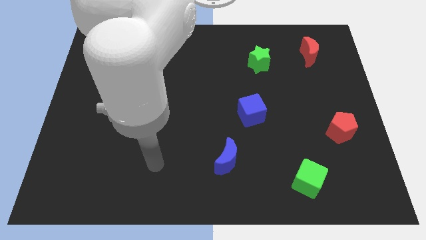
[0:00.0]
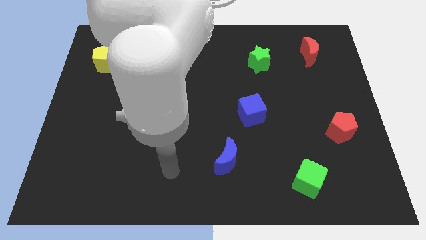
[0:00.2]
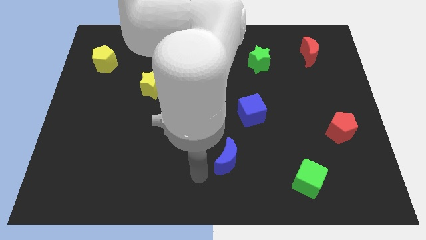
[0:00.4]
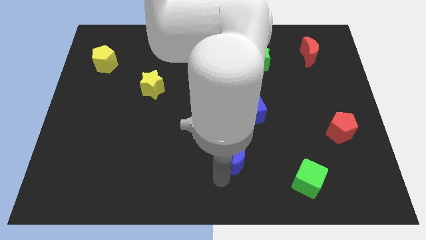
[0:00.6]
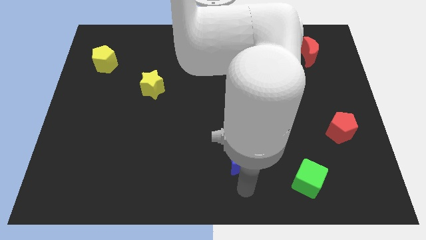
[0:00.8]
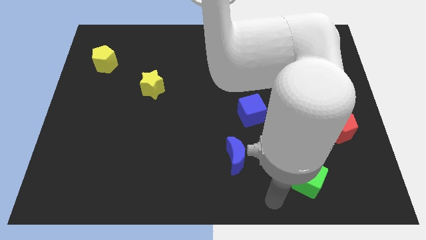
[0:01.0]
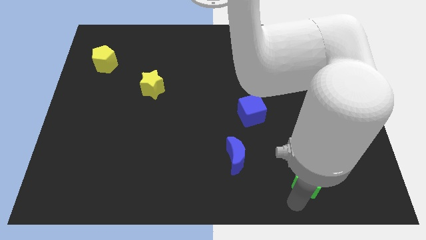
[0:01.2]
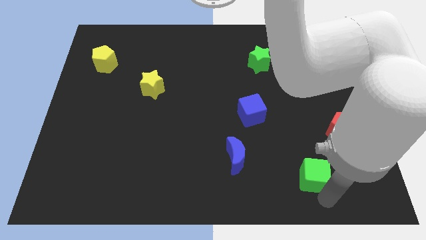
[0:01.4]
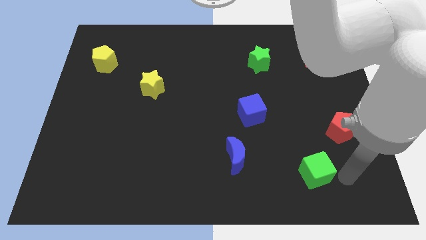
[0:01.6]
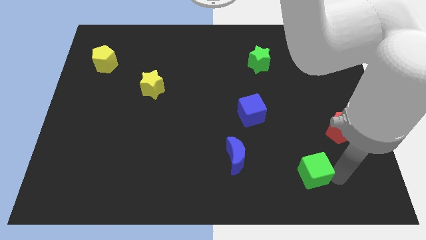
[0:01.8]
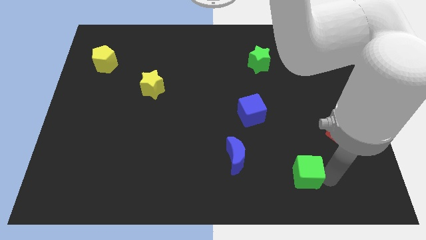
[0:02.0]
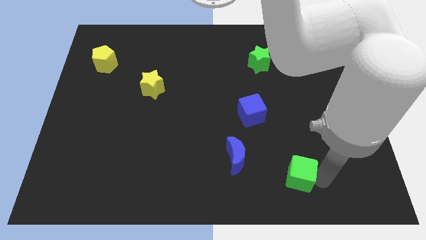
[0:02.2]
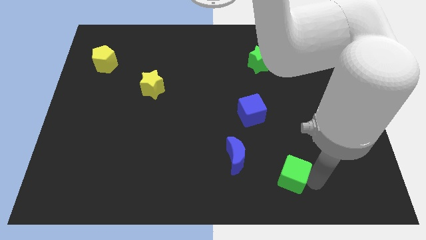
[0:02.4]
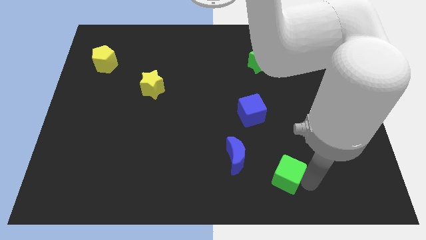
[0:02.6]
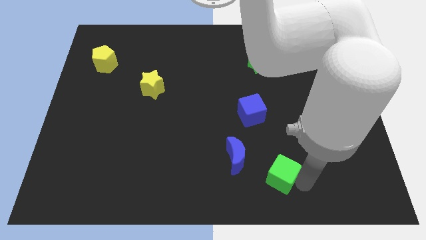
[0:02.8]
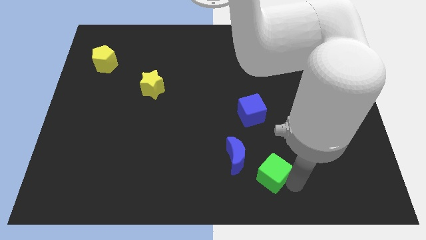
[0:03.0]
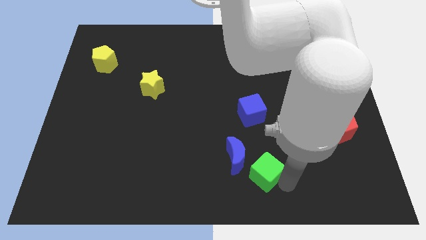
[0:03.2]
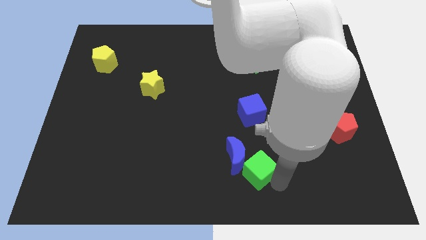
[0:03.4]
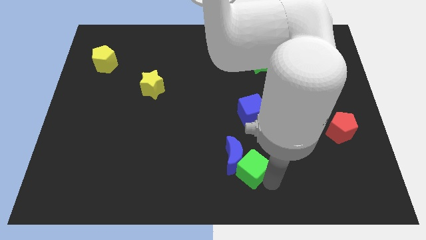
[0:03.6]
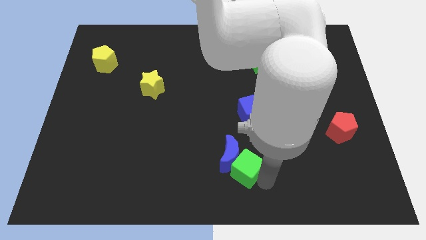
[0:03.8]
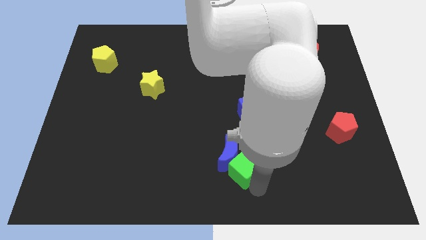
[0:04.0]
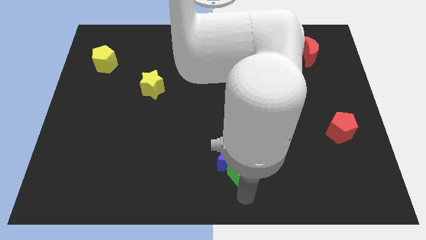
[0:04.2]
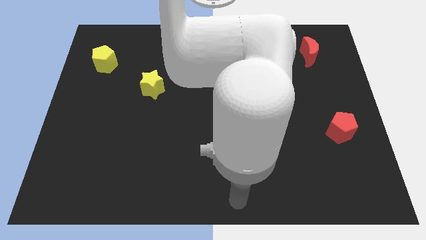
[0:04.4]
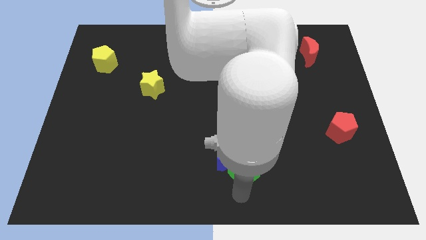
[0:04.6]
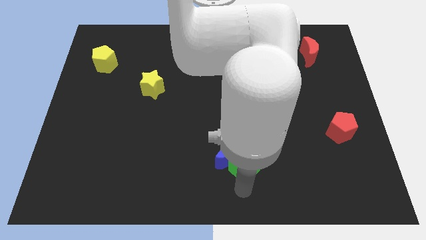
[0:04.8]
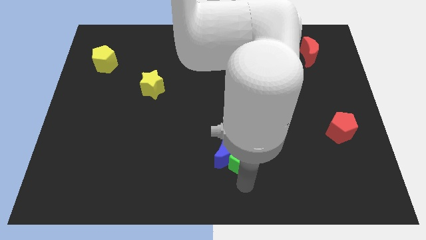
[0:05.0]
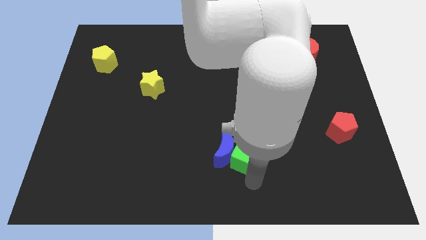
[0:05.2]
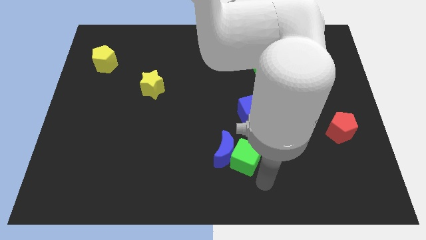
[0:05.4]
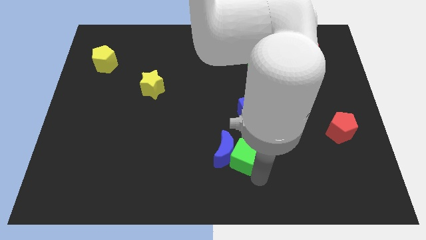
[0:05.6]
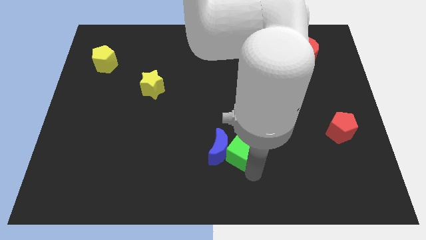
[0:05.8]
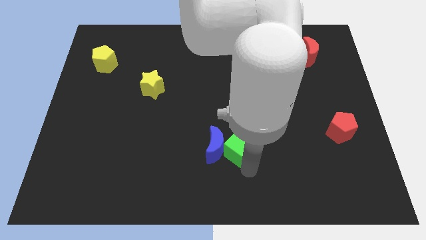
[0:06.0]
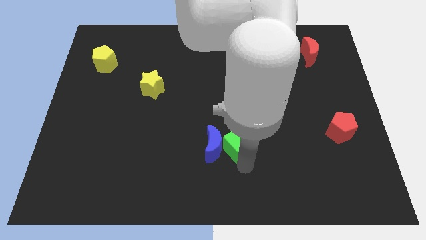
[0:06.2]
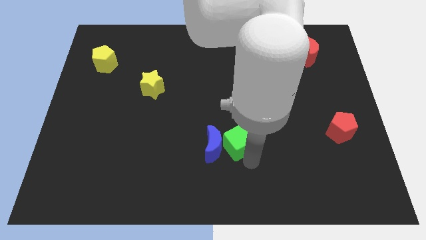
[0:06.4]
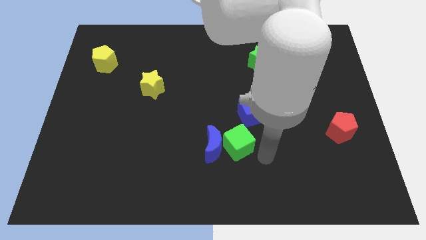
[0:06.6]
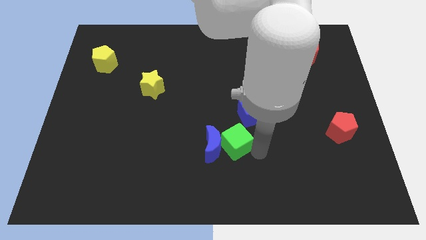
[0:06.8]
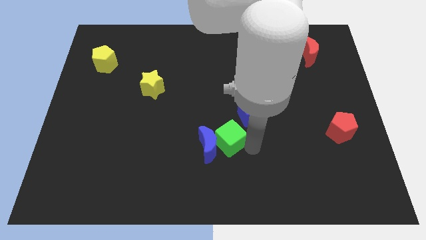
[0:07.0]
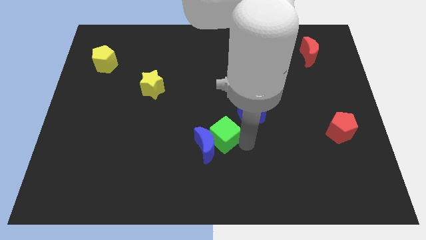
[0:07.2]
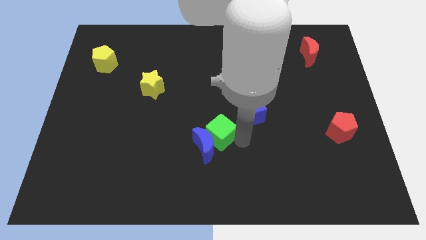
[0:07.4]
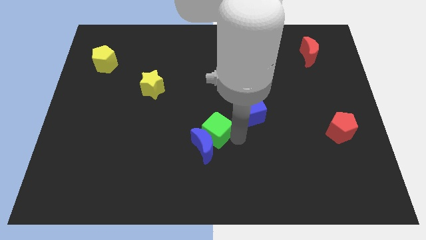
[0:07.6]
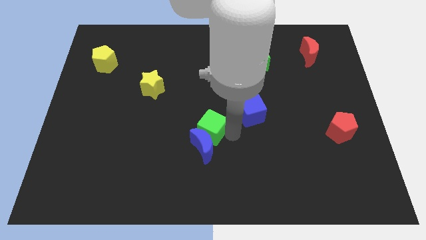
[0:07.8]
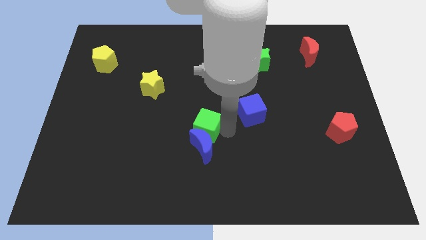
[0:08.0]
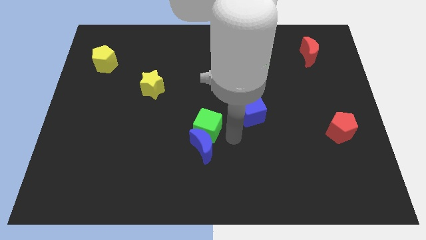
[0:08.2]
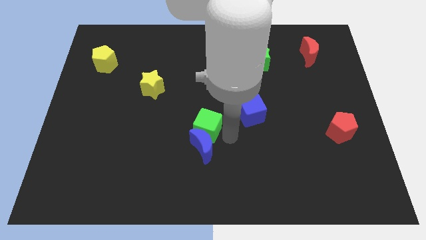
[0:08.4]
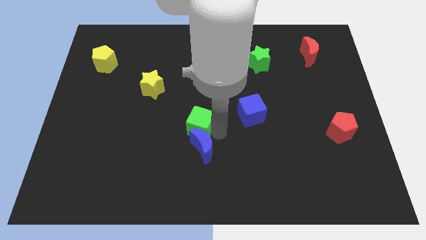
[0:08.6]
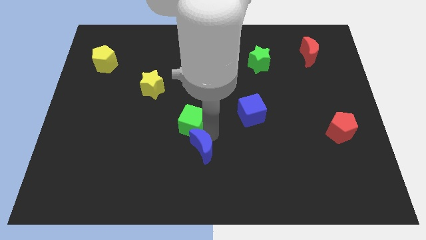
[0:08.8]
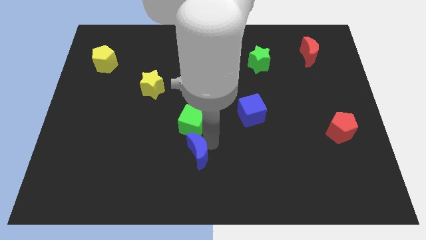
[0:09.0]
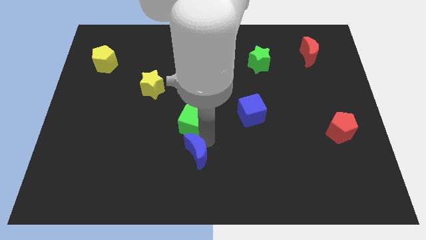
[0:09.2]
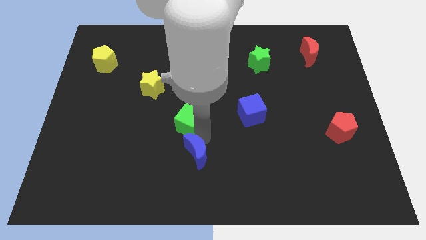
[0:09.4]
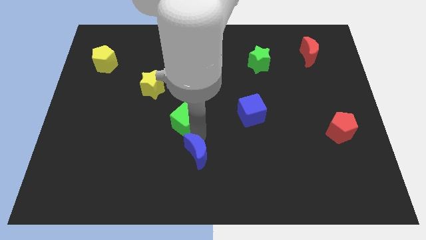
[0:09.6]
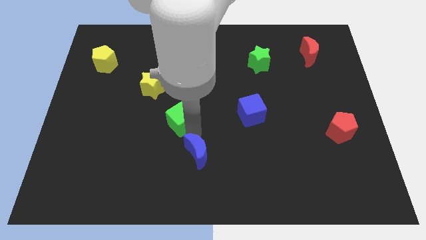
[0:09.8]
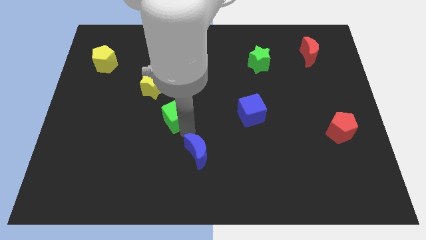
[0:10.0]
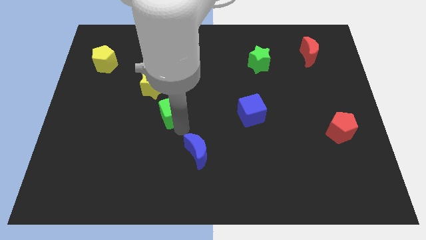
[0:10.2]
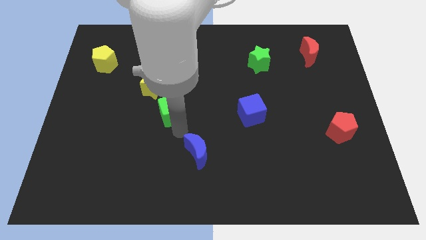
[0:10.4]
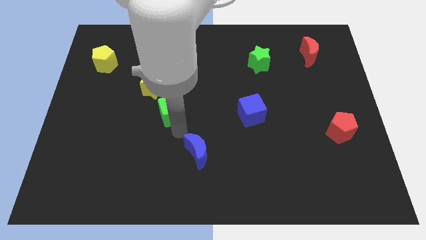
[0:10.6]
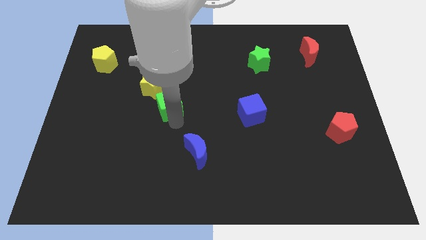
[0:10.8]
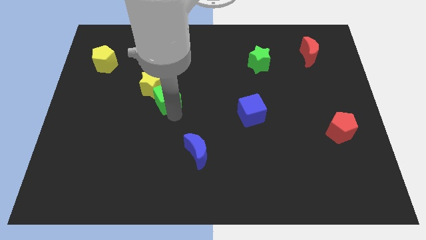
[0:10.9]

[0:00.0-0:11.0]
push the green cube towards the yellow star

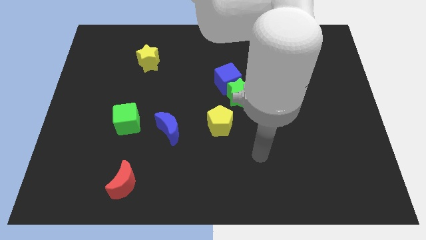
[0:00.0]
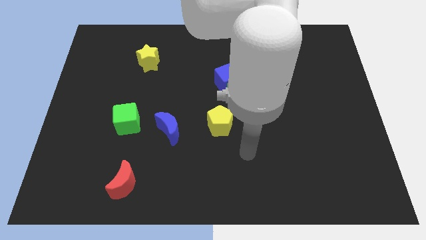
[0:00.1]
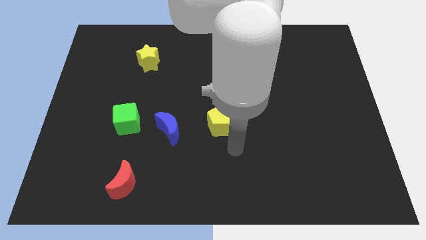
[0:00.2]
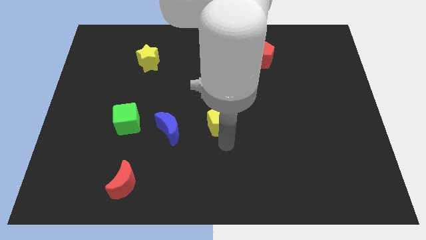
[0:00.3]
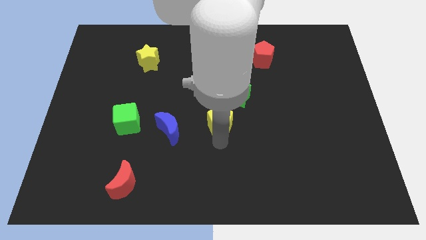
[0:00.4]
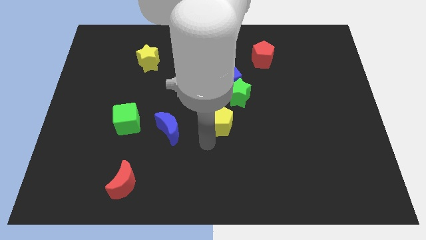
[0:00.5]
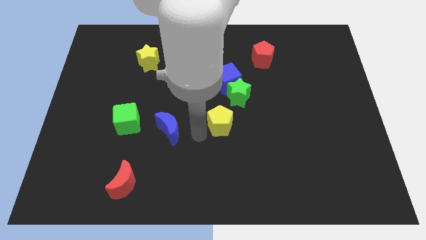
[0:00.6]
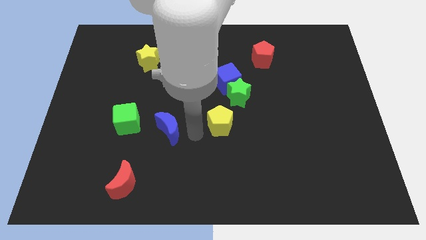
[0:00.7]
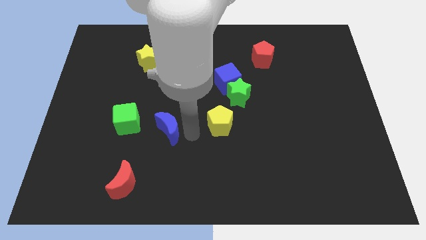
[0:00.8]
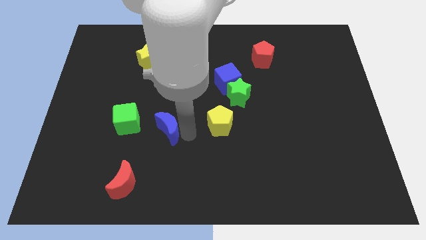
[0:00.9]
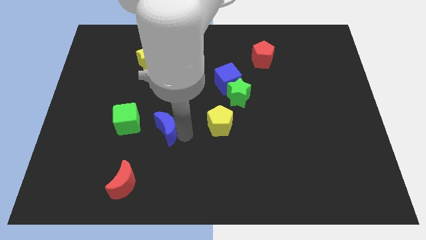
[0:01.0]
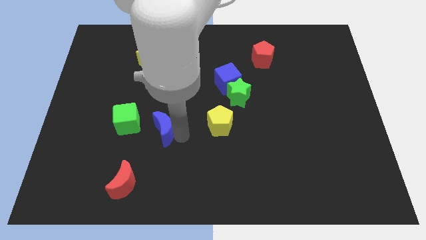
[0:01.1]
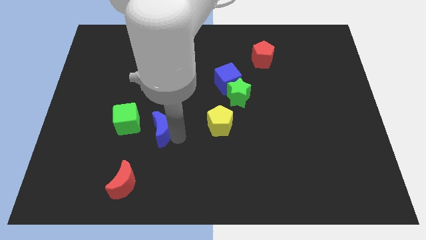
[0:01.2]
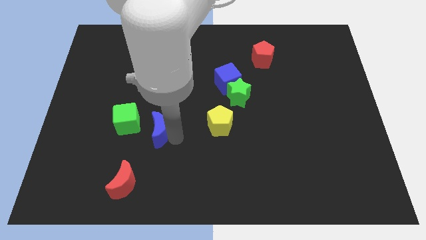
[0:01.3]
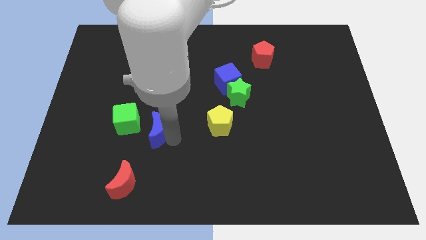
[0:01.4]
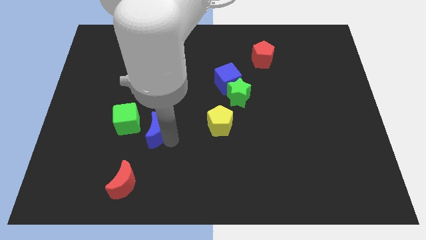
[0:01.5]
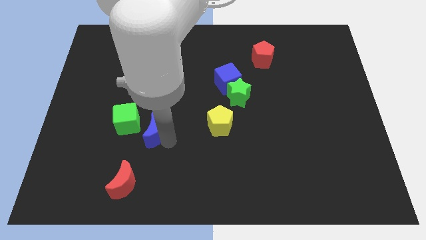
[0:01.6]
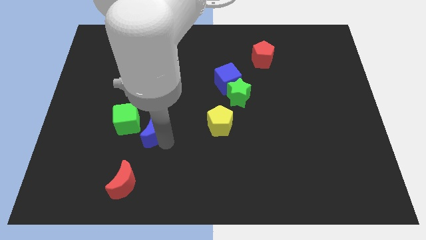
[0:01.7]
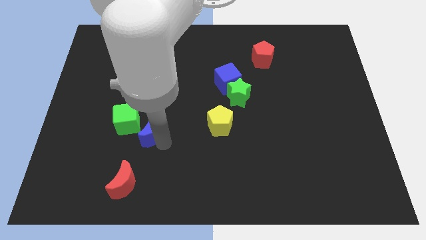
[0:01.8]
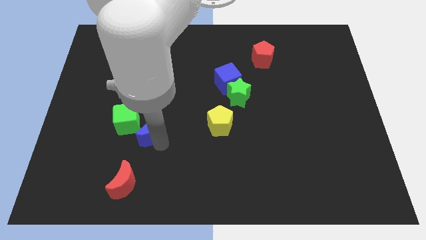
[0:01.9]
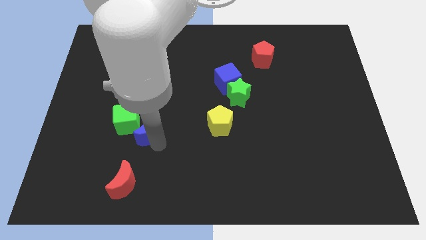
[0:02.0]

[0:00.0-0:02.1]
push the blue moon close to the green cube
